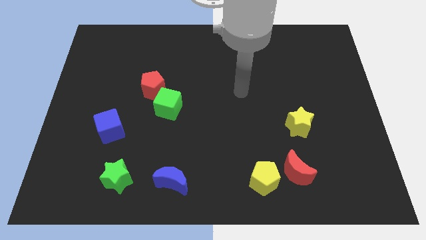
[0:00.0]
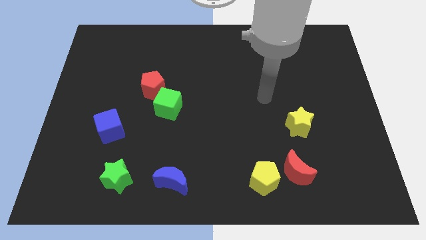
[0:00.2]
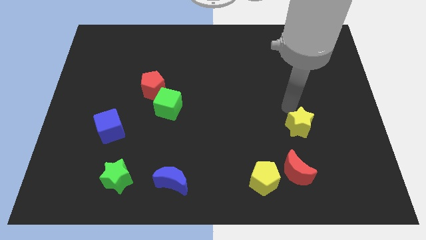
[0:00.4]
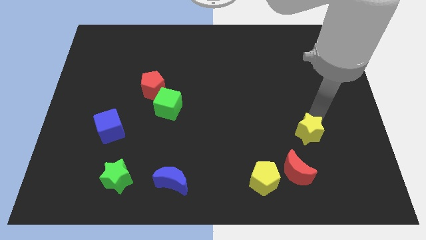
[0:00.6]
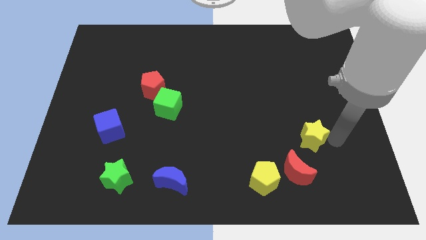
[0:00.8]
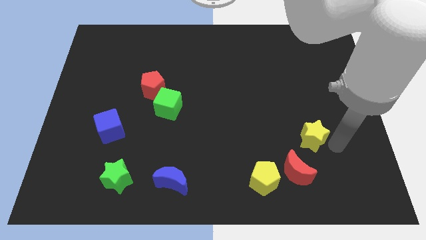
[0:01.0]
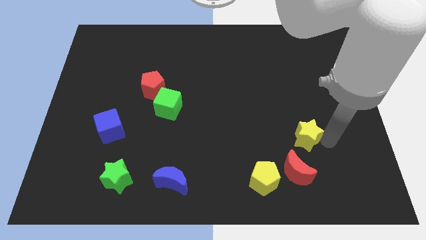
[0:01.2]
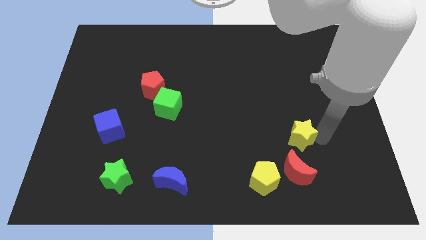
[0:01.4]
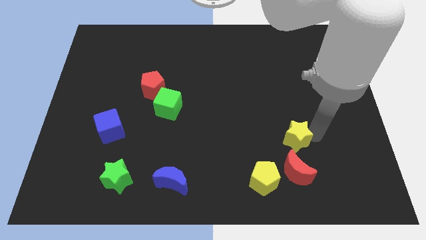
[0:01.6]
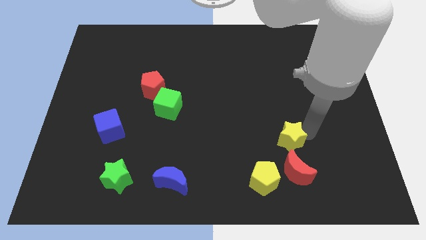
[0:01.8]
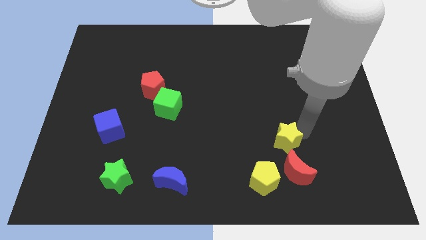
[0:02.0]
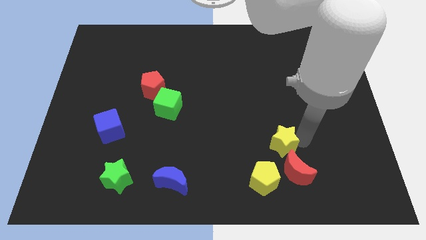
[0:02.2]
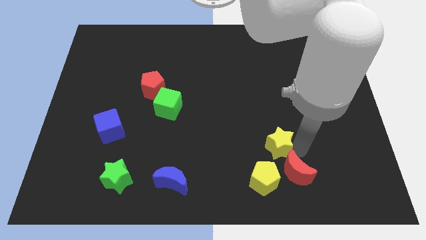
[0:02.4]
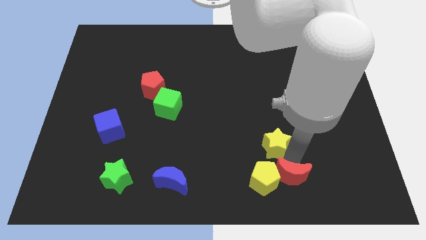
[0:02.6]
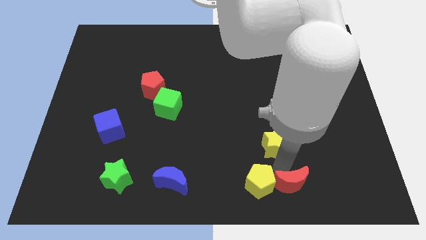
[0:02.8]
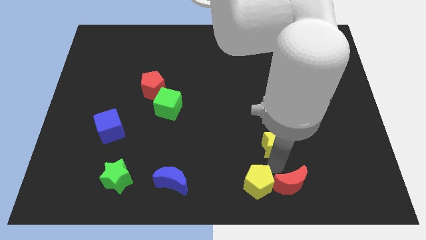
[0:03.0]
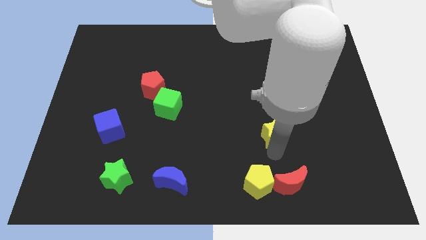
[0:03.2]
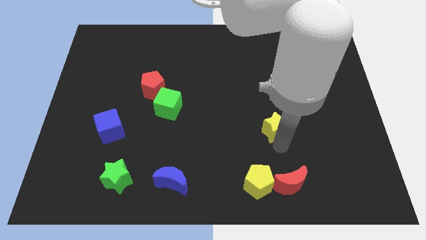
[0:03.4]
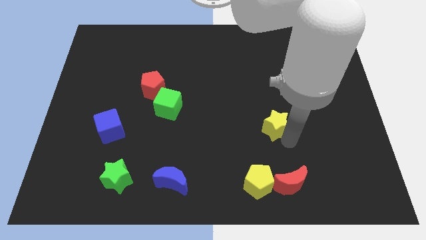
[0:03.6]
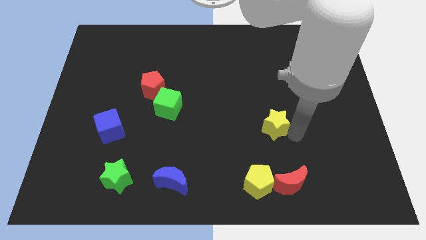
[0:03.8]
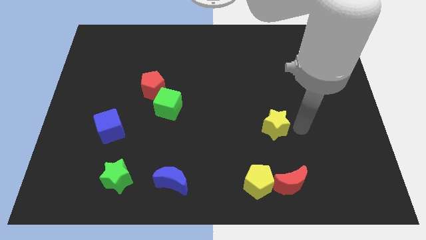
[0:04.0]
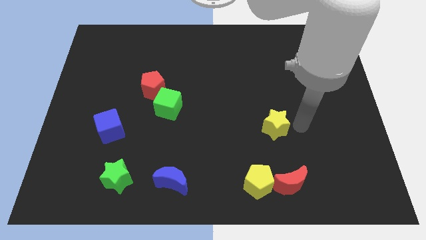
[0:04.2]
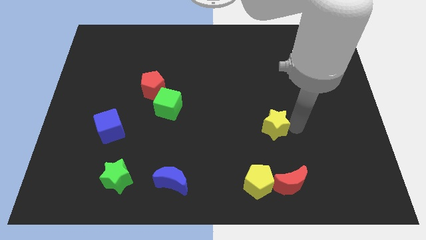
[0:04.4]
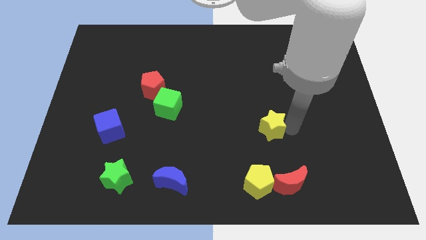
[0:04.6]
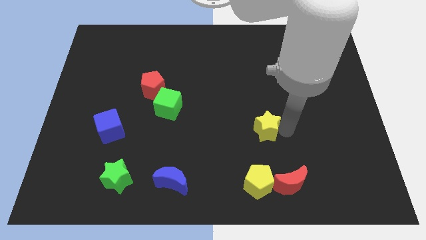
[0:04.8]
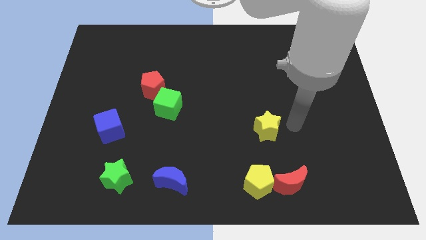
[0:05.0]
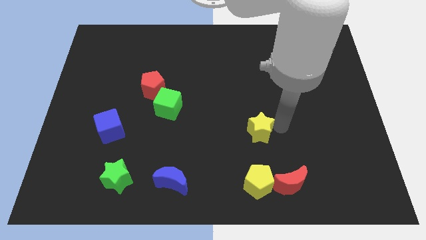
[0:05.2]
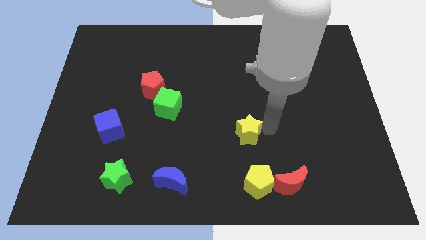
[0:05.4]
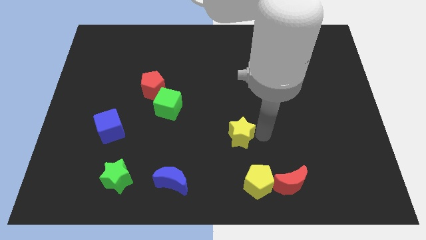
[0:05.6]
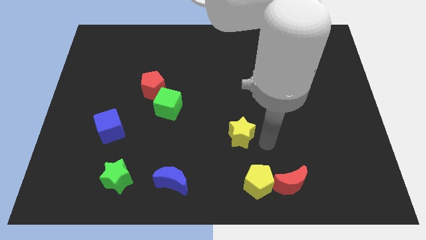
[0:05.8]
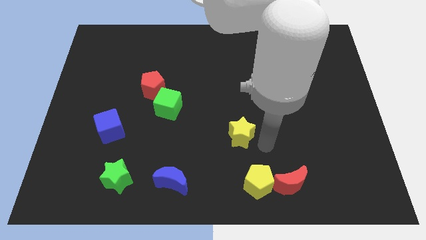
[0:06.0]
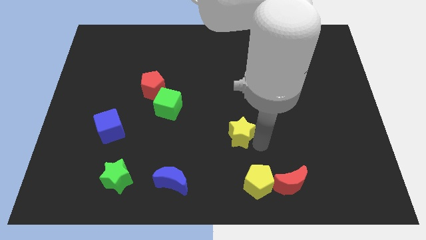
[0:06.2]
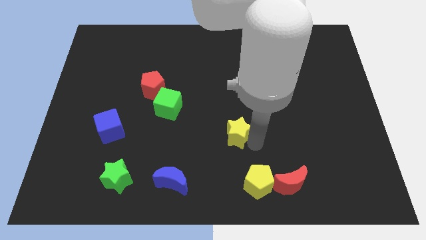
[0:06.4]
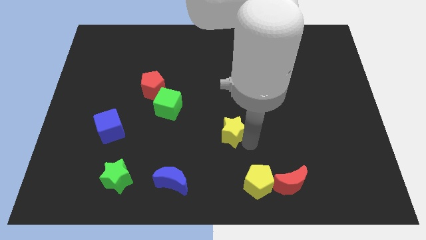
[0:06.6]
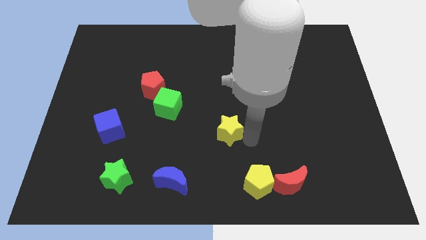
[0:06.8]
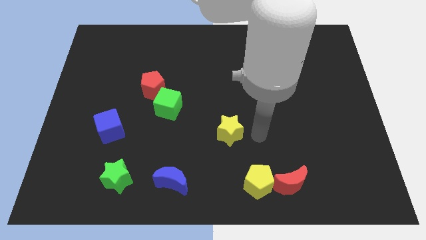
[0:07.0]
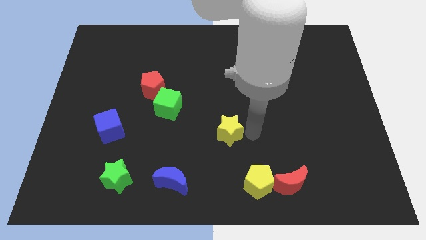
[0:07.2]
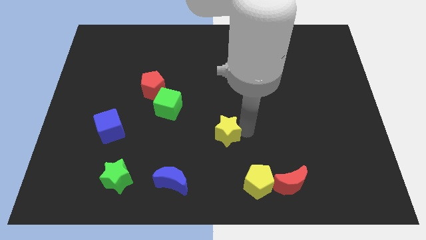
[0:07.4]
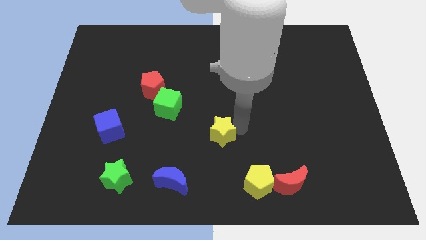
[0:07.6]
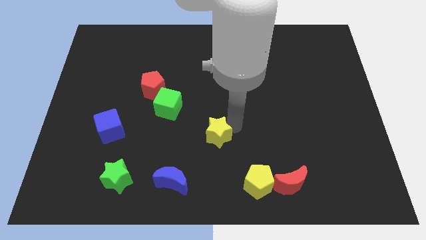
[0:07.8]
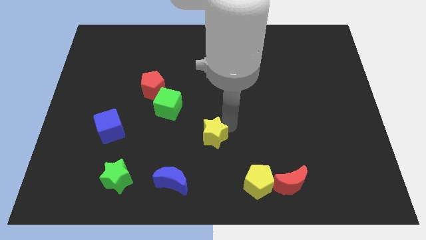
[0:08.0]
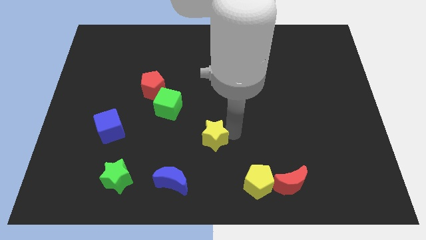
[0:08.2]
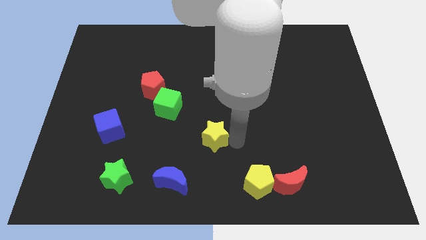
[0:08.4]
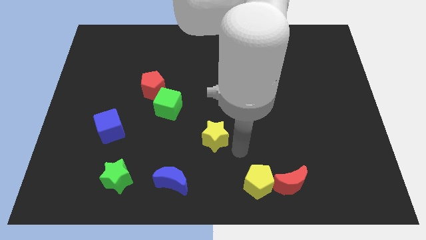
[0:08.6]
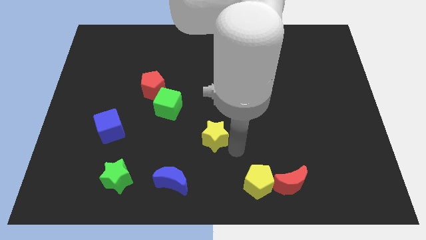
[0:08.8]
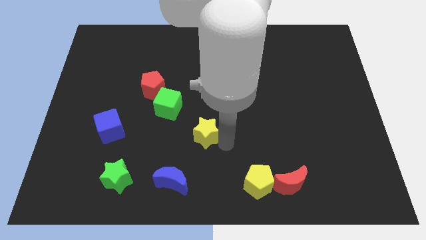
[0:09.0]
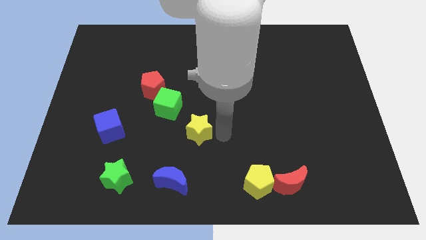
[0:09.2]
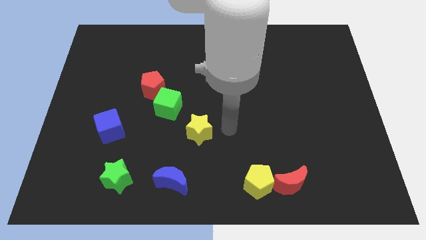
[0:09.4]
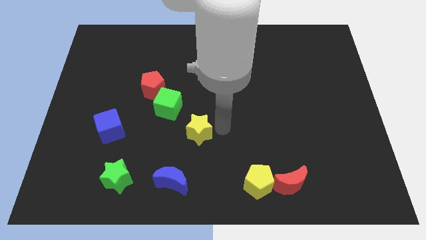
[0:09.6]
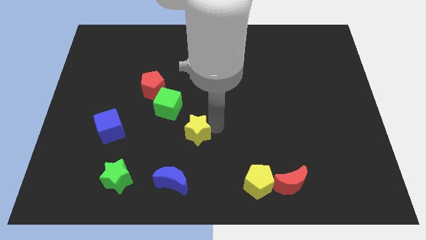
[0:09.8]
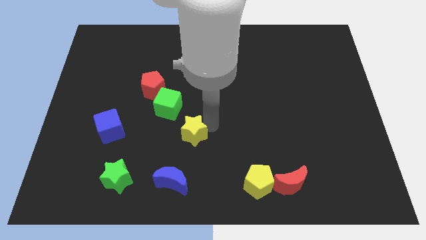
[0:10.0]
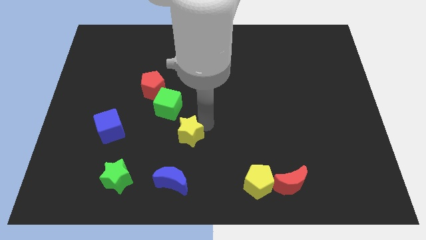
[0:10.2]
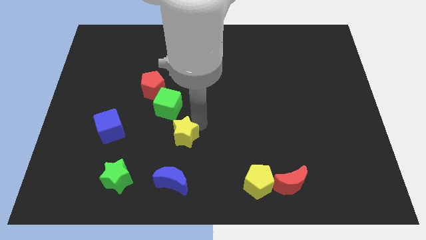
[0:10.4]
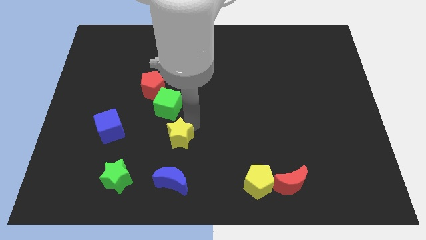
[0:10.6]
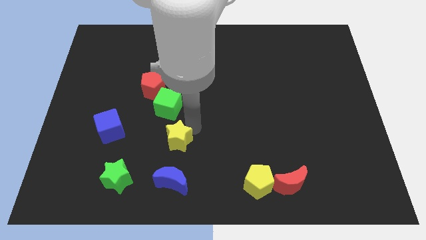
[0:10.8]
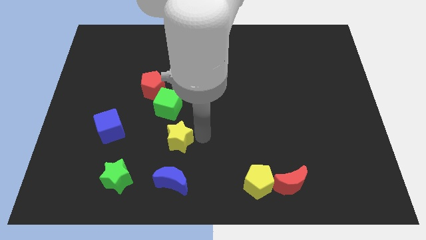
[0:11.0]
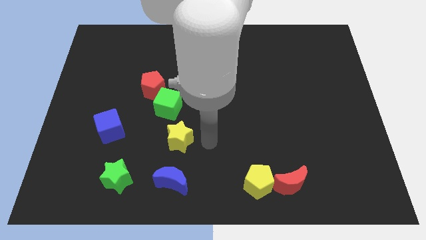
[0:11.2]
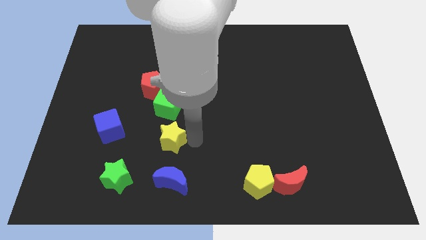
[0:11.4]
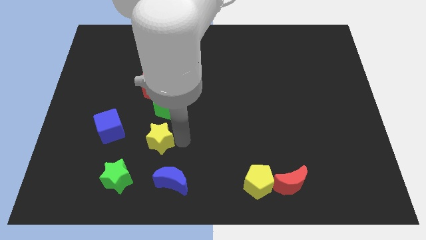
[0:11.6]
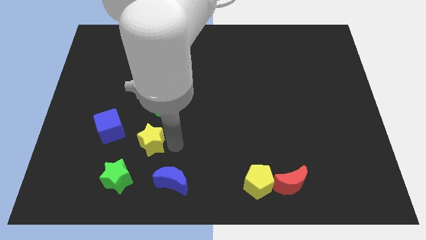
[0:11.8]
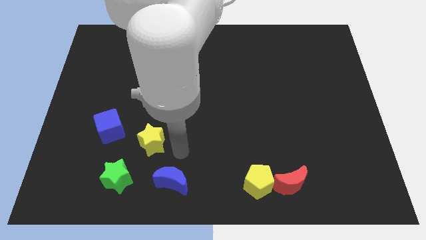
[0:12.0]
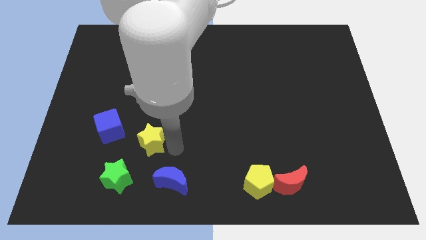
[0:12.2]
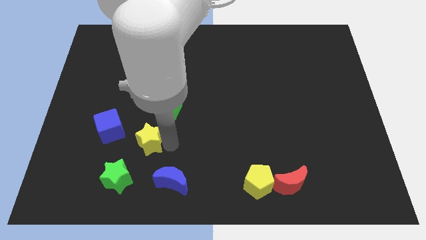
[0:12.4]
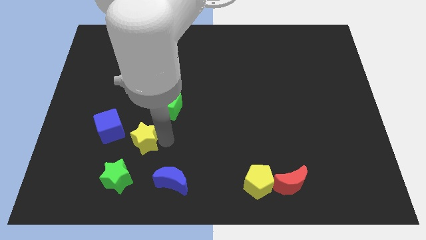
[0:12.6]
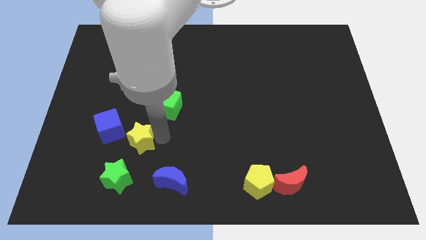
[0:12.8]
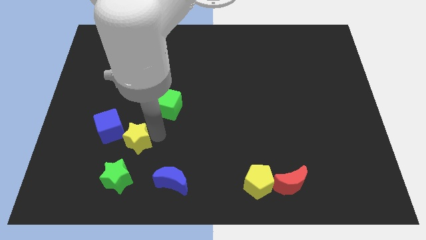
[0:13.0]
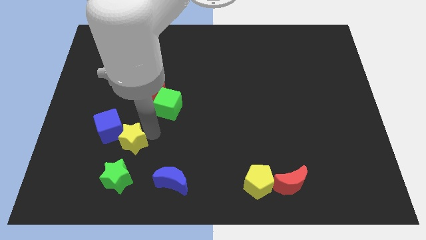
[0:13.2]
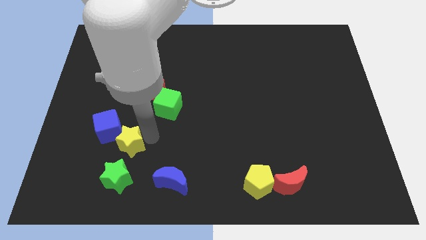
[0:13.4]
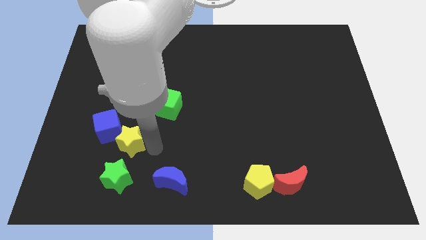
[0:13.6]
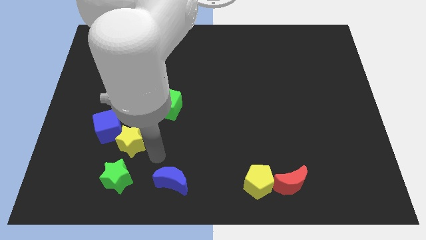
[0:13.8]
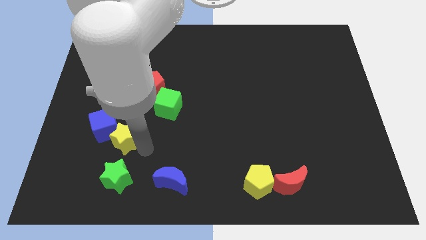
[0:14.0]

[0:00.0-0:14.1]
push the yellow star to the blue cube

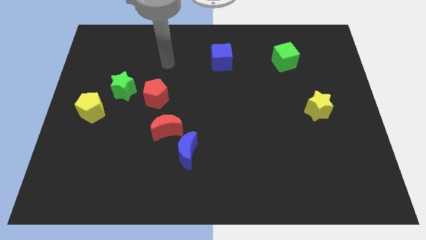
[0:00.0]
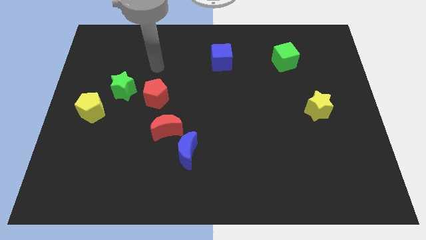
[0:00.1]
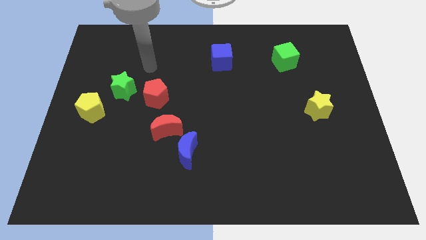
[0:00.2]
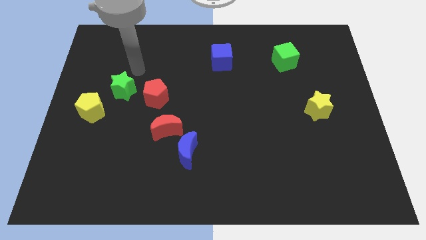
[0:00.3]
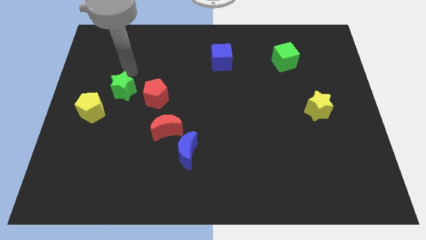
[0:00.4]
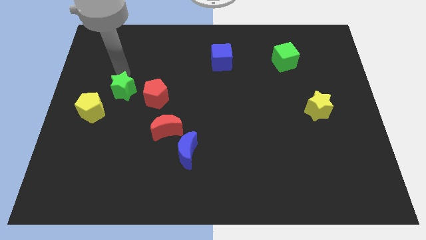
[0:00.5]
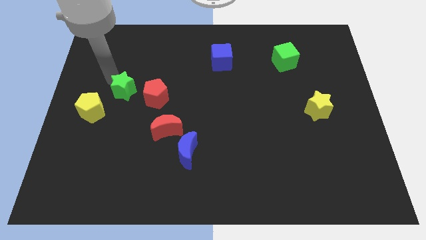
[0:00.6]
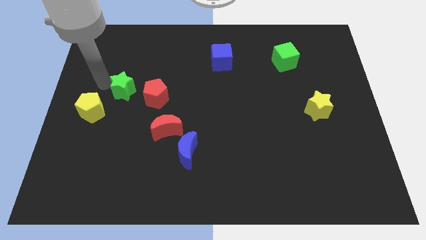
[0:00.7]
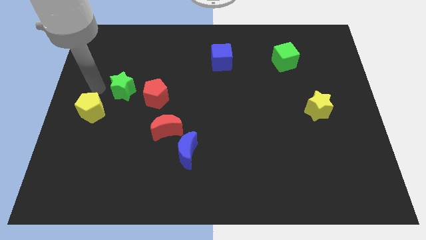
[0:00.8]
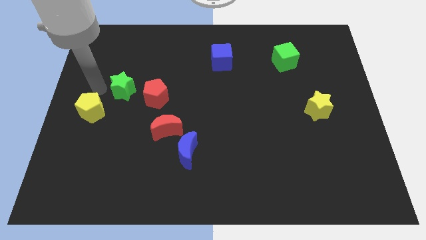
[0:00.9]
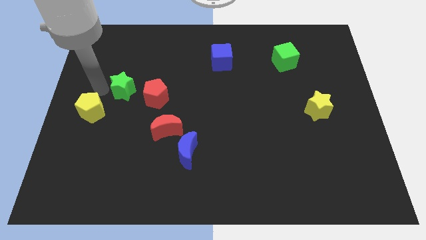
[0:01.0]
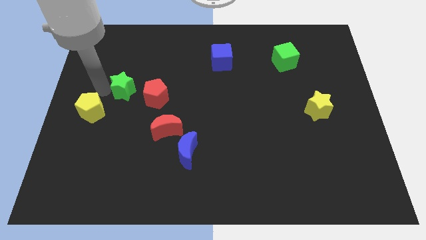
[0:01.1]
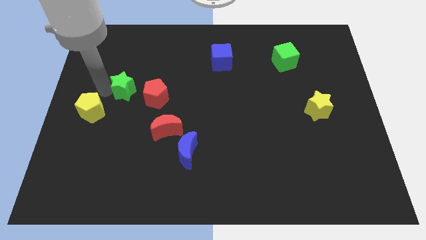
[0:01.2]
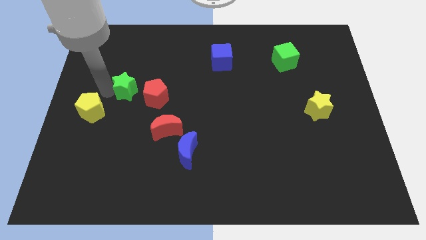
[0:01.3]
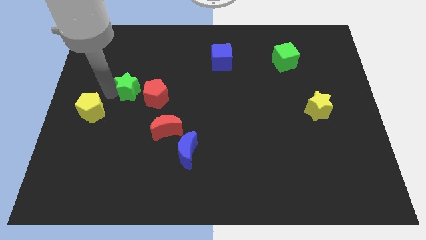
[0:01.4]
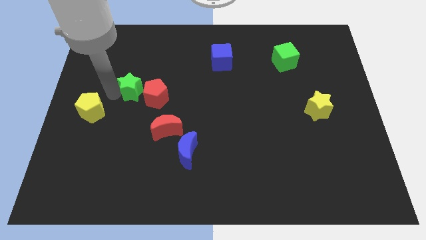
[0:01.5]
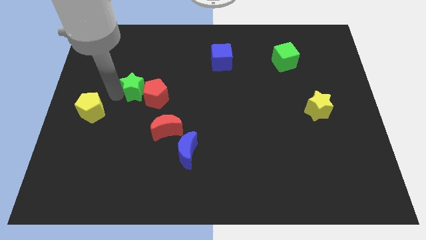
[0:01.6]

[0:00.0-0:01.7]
push the green star to the red pentagon
